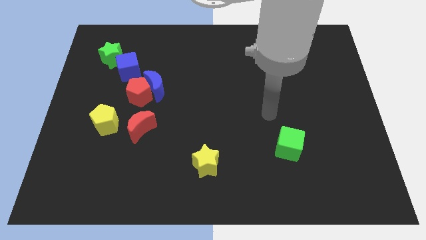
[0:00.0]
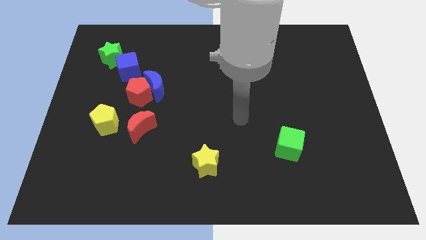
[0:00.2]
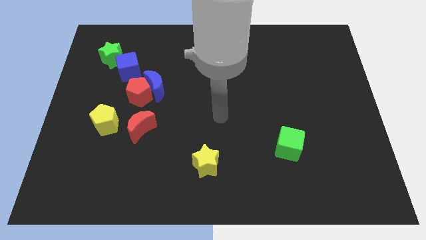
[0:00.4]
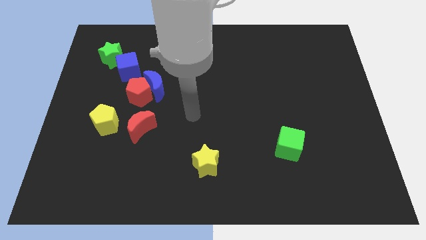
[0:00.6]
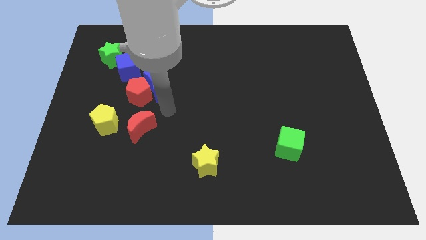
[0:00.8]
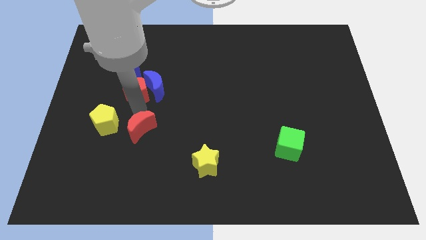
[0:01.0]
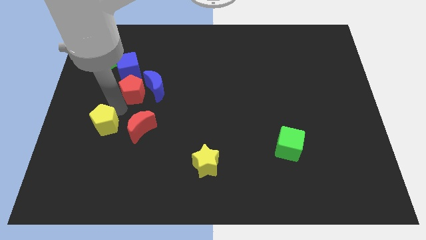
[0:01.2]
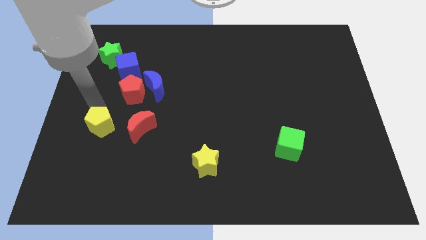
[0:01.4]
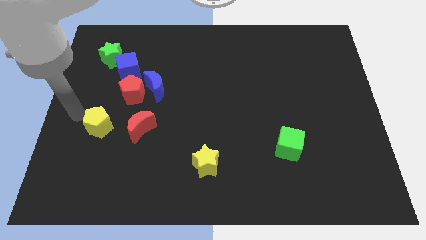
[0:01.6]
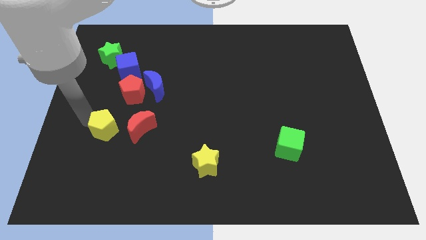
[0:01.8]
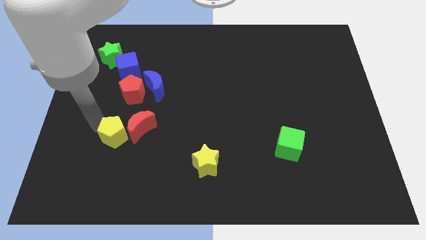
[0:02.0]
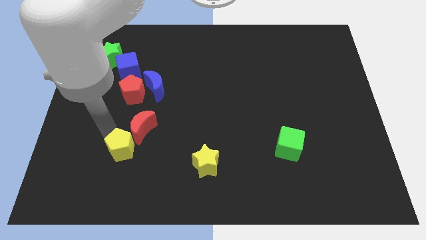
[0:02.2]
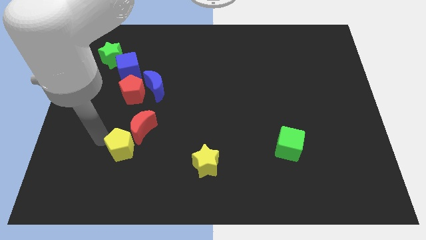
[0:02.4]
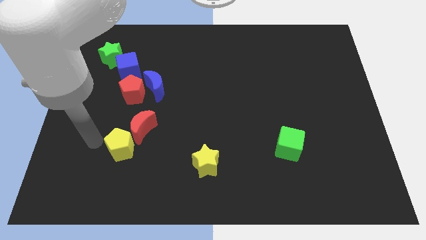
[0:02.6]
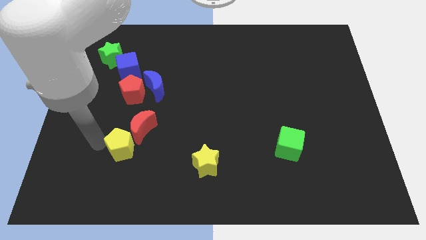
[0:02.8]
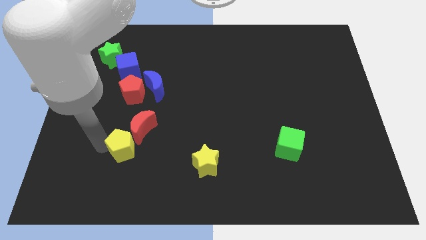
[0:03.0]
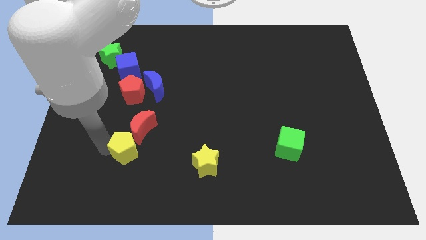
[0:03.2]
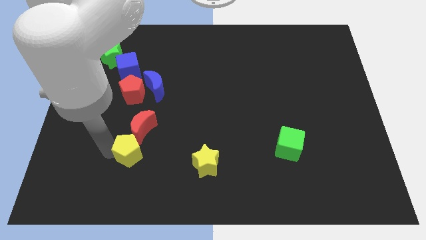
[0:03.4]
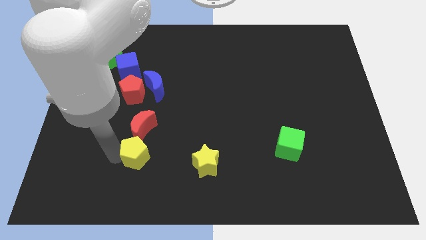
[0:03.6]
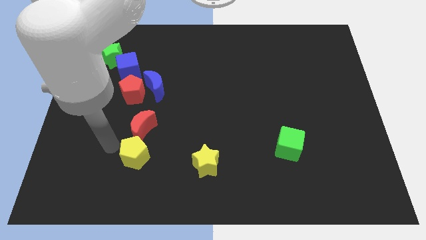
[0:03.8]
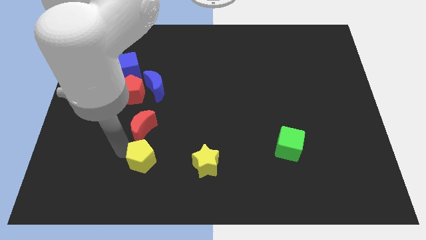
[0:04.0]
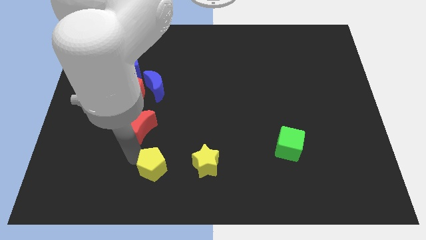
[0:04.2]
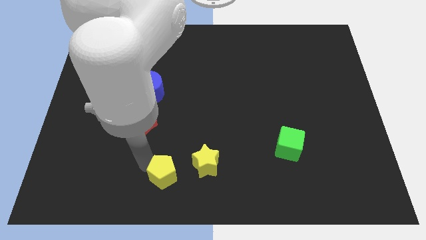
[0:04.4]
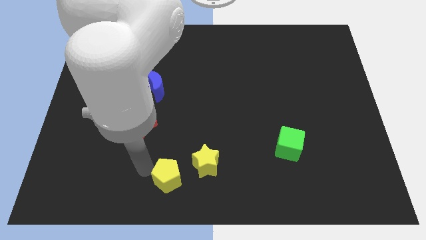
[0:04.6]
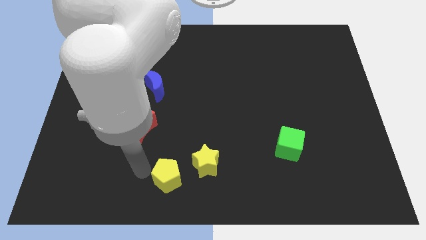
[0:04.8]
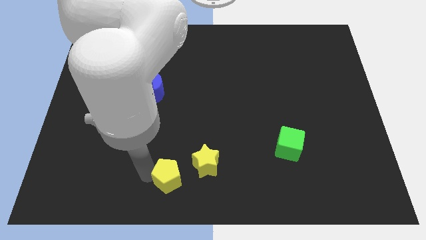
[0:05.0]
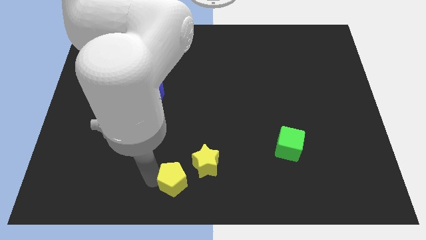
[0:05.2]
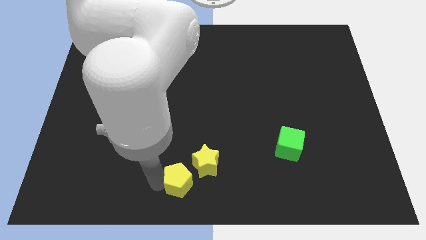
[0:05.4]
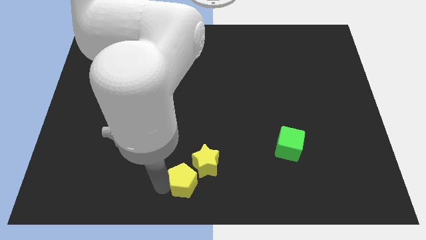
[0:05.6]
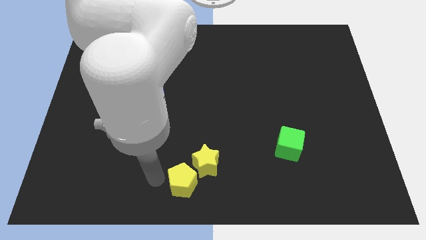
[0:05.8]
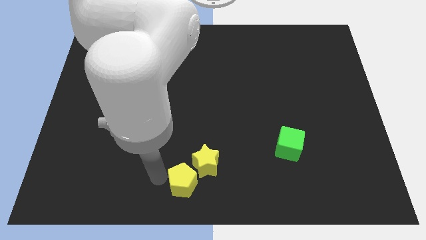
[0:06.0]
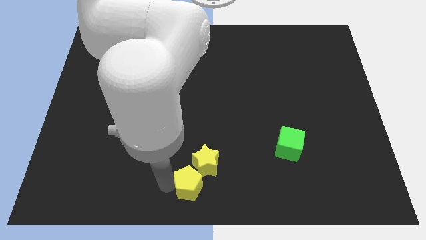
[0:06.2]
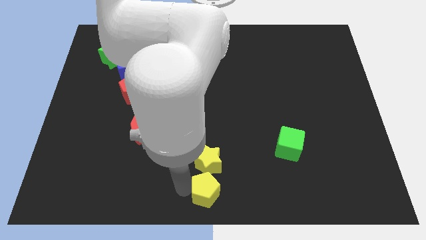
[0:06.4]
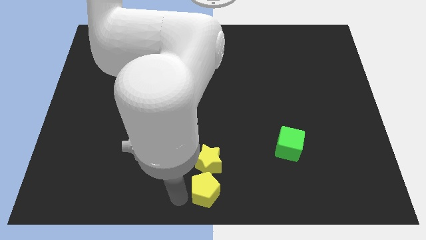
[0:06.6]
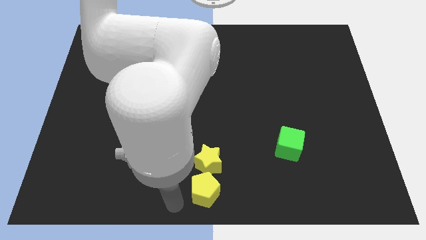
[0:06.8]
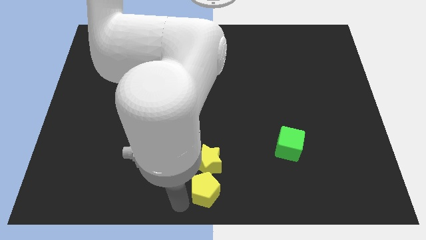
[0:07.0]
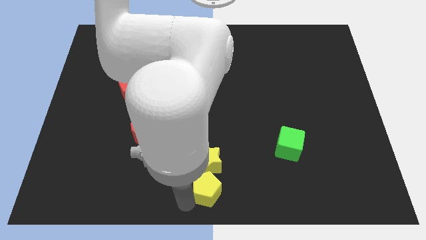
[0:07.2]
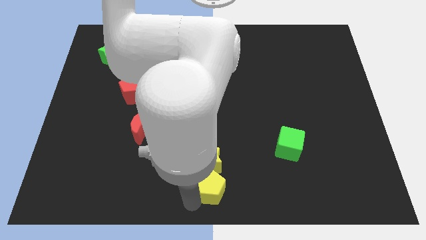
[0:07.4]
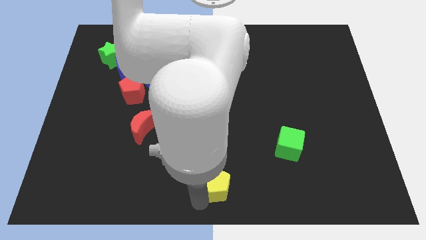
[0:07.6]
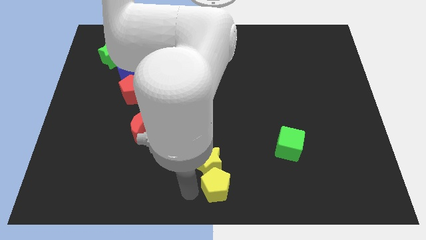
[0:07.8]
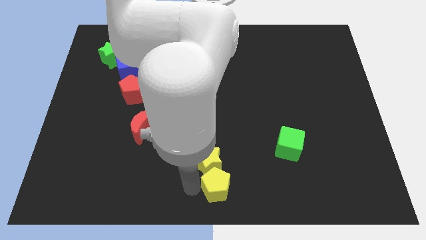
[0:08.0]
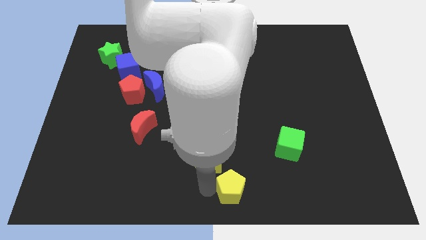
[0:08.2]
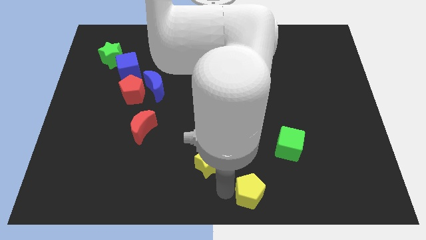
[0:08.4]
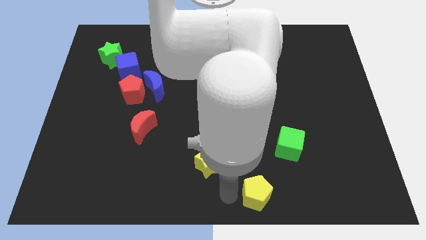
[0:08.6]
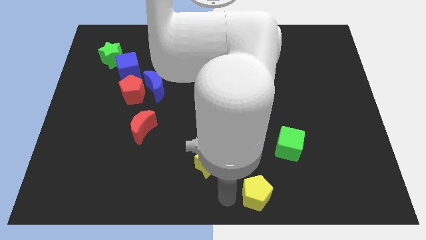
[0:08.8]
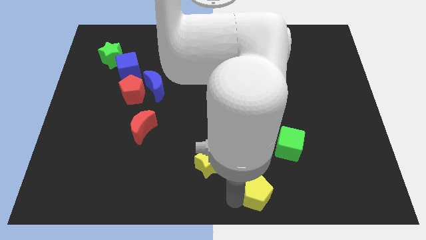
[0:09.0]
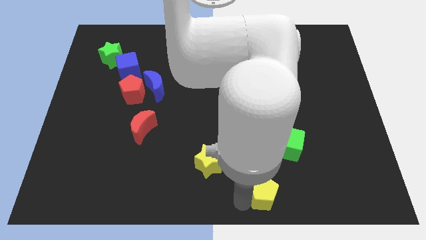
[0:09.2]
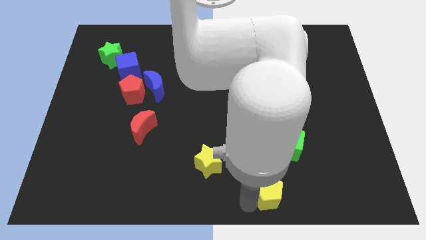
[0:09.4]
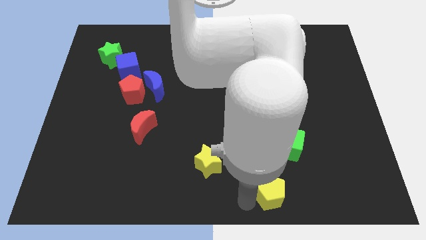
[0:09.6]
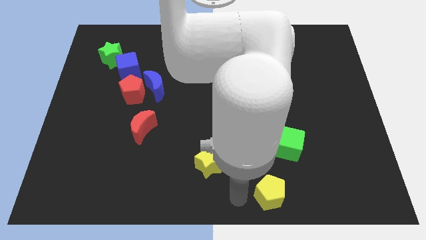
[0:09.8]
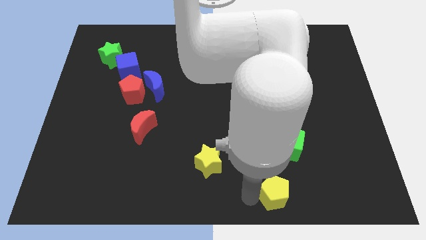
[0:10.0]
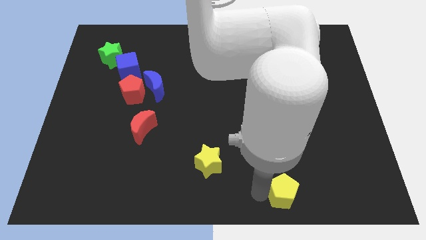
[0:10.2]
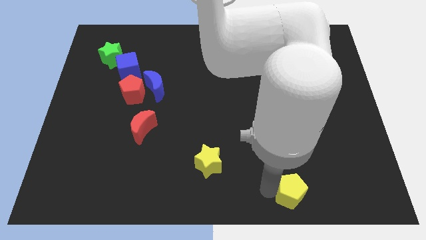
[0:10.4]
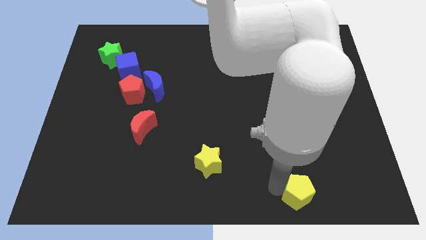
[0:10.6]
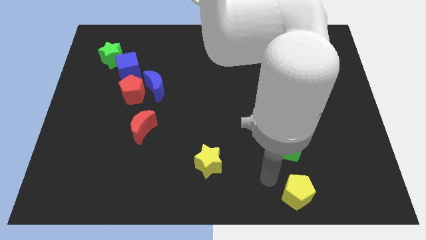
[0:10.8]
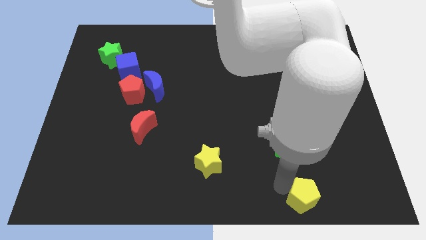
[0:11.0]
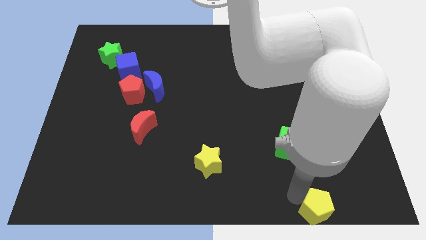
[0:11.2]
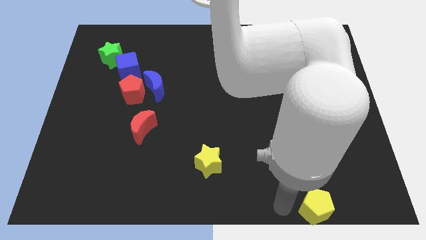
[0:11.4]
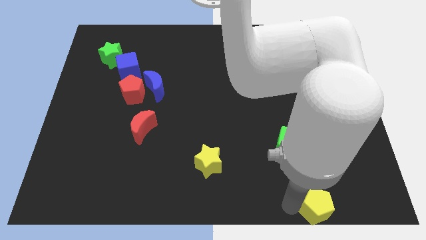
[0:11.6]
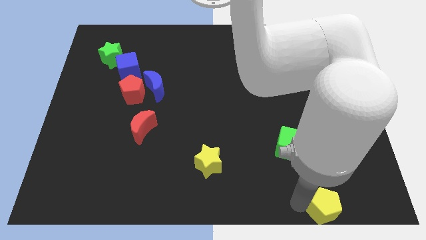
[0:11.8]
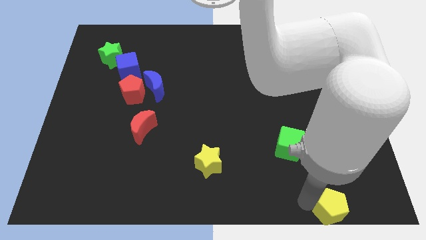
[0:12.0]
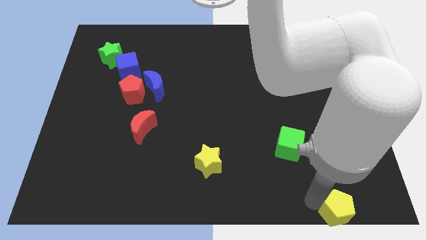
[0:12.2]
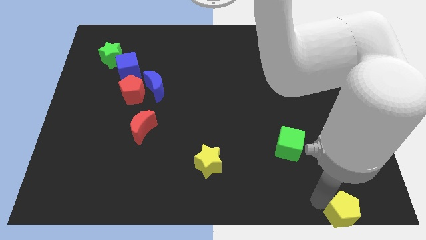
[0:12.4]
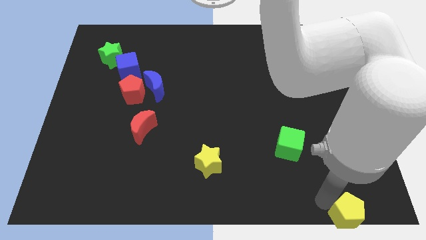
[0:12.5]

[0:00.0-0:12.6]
put the yellow pentagon to the bottom right
